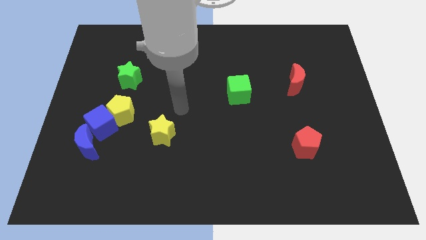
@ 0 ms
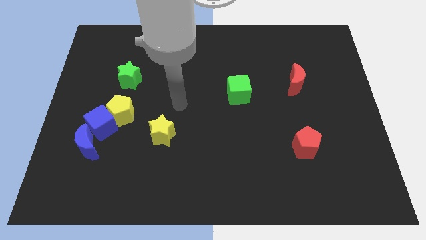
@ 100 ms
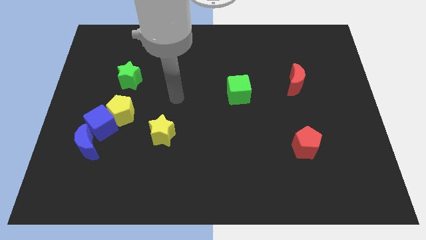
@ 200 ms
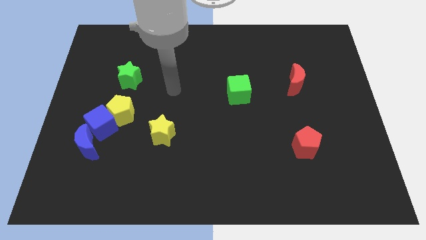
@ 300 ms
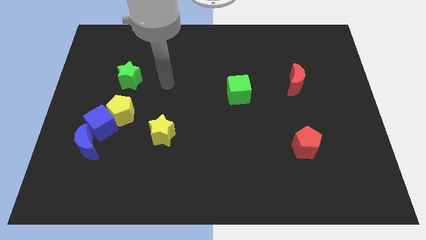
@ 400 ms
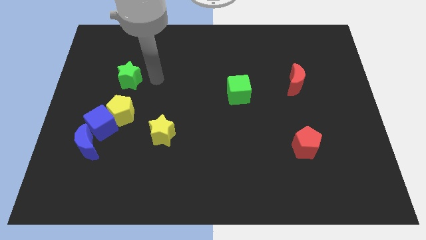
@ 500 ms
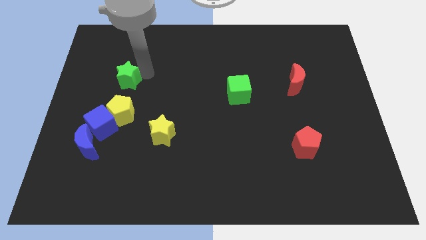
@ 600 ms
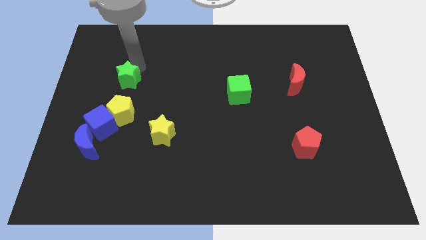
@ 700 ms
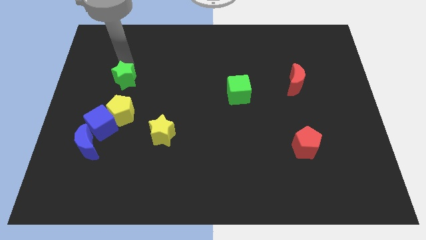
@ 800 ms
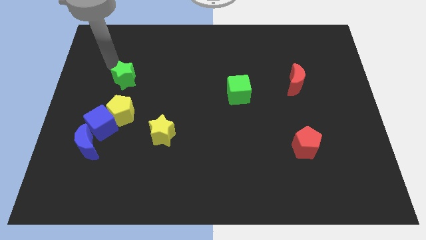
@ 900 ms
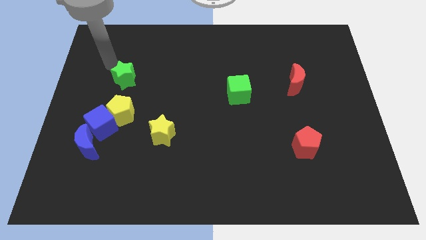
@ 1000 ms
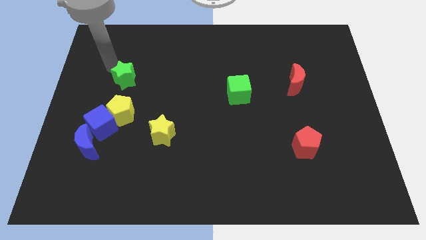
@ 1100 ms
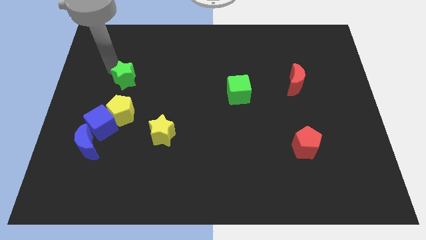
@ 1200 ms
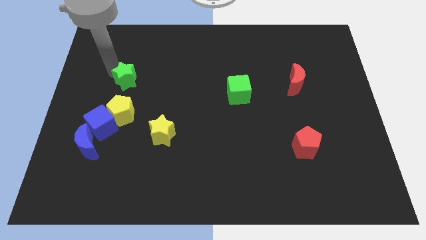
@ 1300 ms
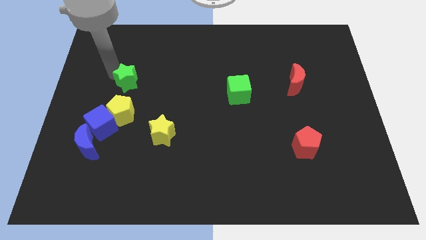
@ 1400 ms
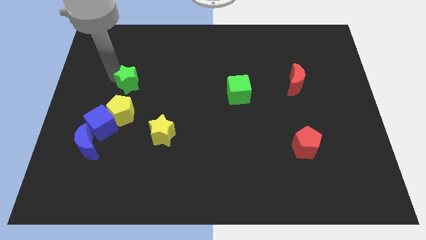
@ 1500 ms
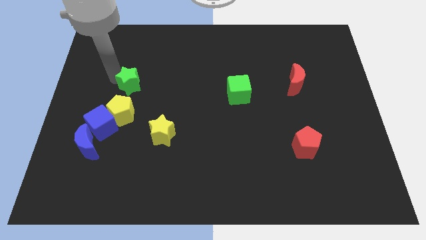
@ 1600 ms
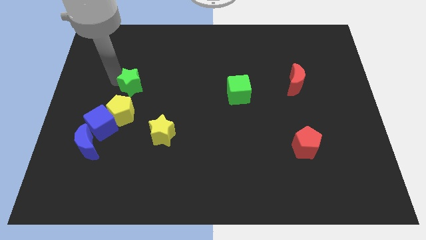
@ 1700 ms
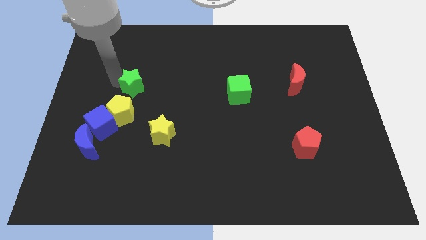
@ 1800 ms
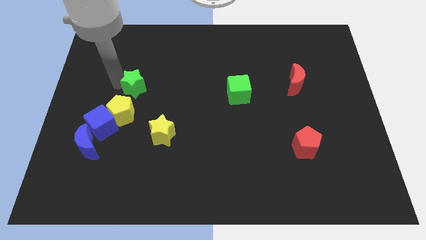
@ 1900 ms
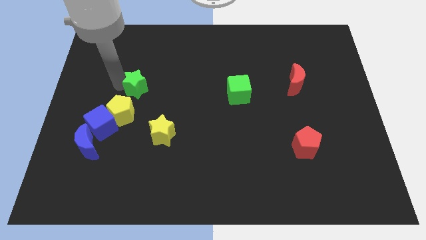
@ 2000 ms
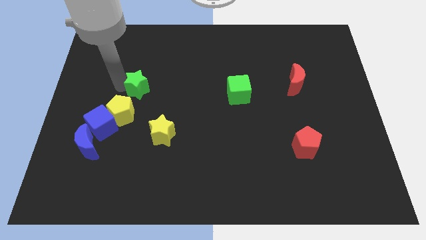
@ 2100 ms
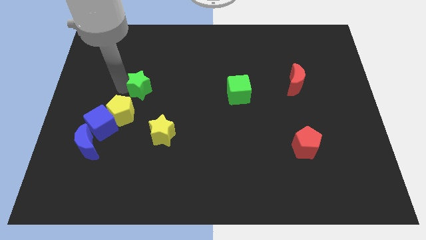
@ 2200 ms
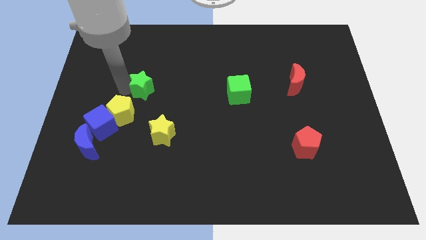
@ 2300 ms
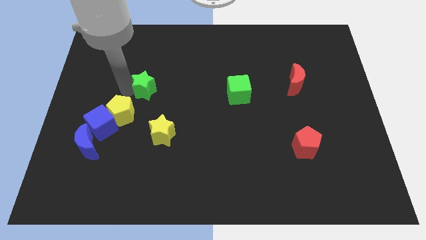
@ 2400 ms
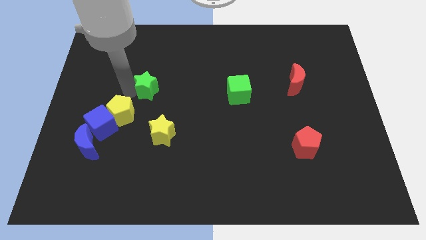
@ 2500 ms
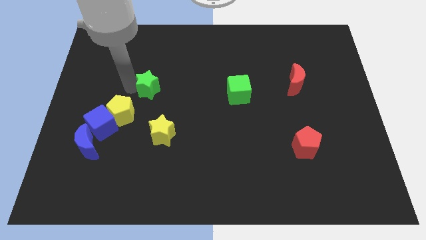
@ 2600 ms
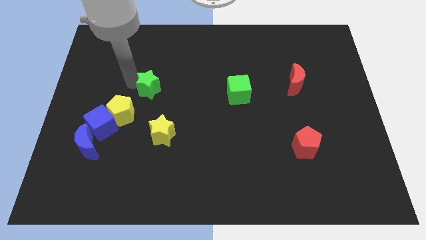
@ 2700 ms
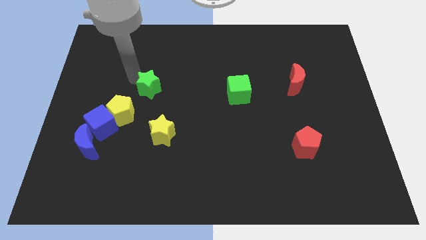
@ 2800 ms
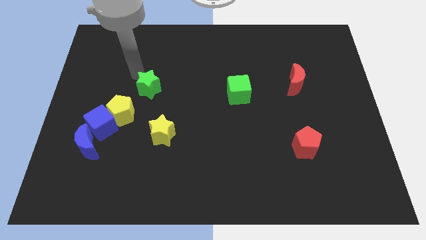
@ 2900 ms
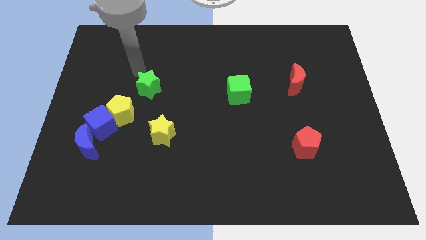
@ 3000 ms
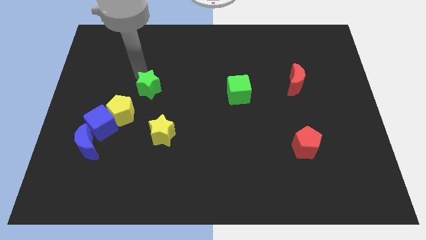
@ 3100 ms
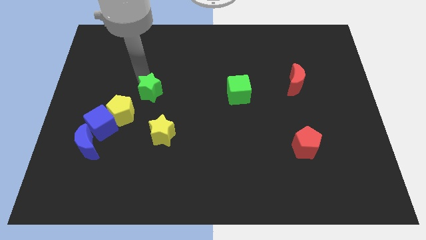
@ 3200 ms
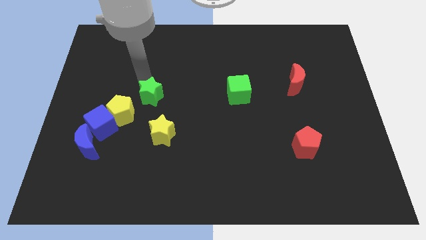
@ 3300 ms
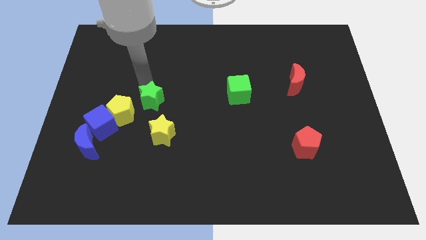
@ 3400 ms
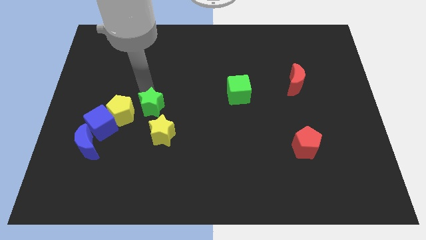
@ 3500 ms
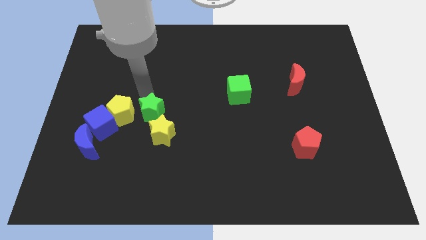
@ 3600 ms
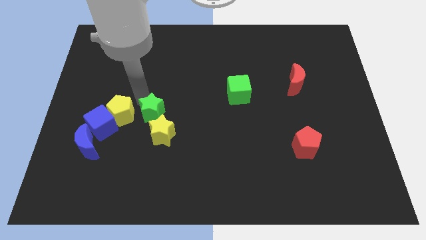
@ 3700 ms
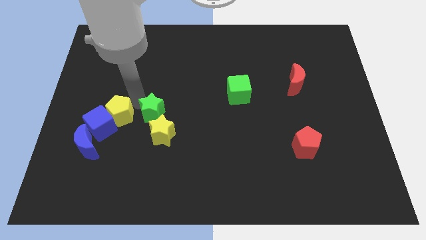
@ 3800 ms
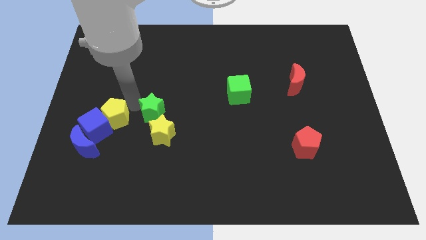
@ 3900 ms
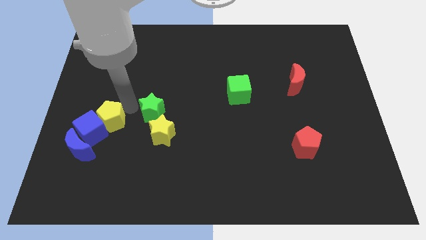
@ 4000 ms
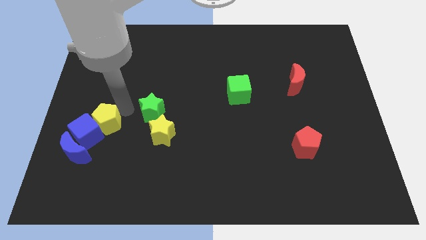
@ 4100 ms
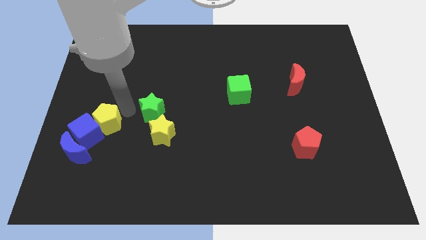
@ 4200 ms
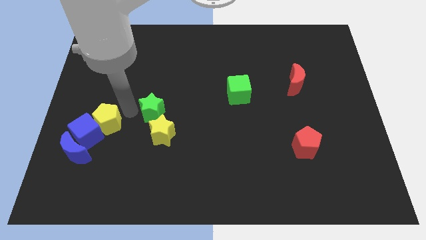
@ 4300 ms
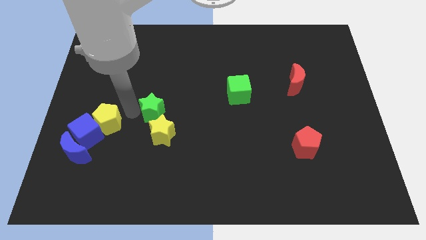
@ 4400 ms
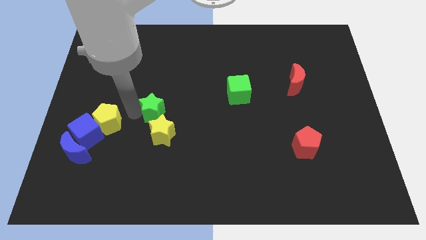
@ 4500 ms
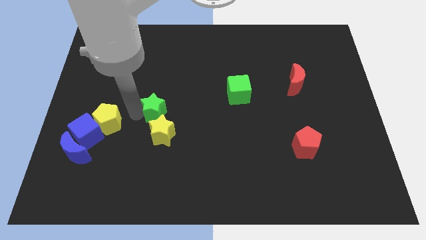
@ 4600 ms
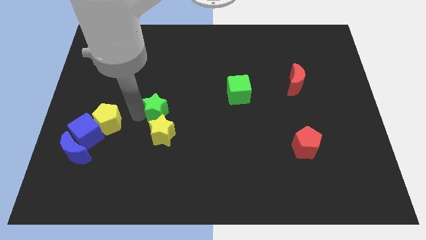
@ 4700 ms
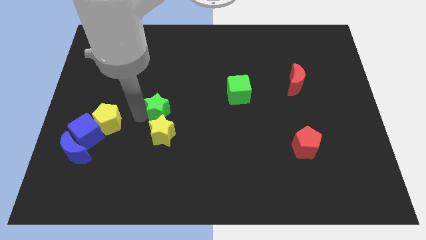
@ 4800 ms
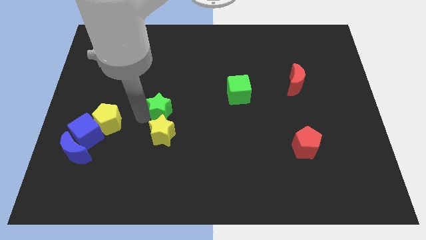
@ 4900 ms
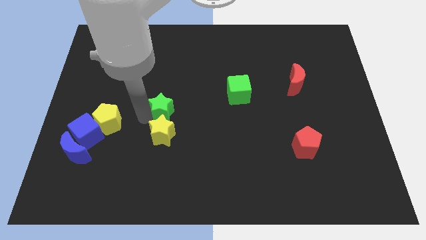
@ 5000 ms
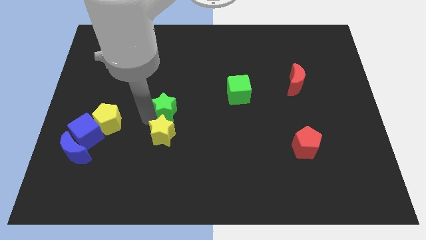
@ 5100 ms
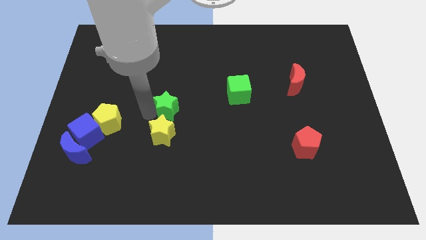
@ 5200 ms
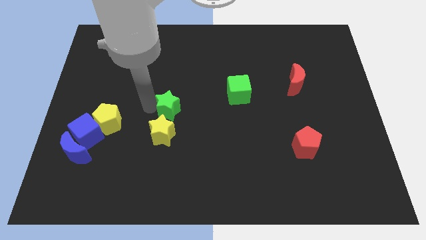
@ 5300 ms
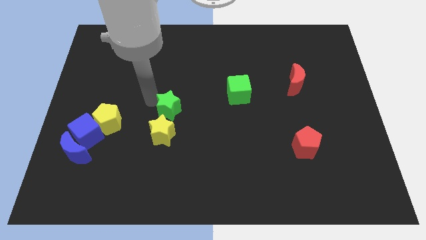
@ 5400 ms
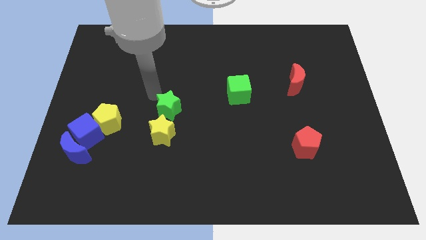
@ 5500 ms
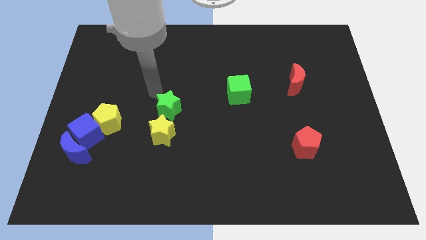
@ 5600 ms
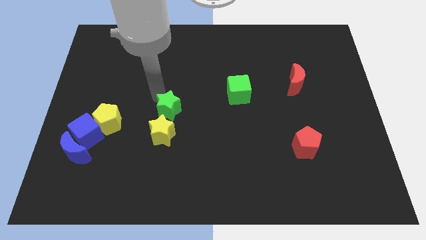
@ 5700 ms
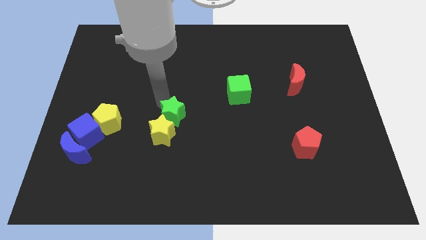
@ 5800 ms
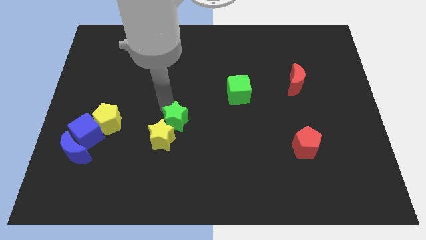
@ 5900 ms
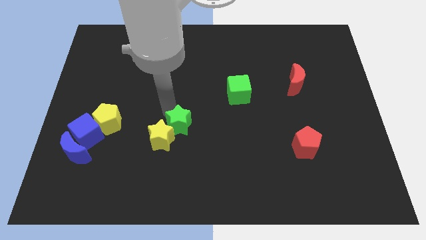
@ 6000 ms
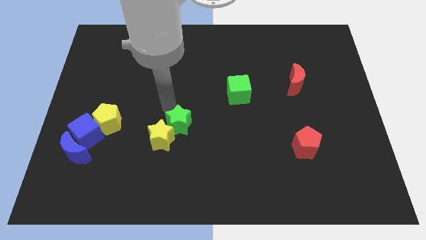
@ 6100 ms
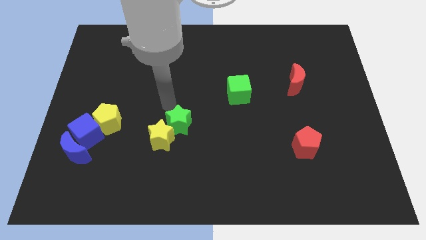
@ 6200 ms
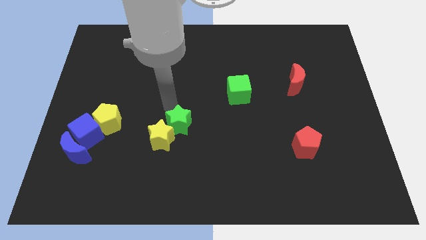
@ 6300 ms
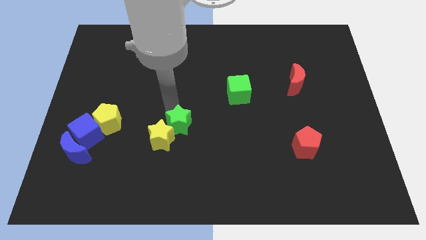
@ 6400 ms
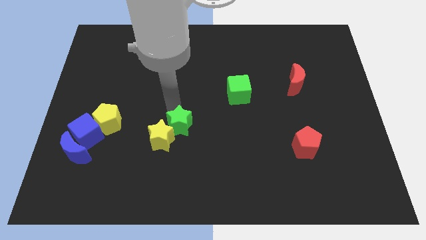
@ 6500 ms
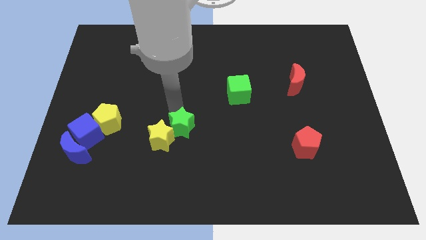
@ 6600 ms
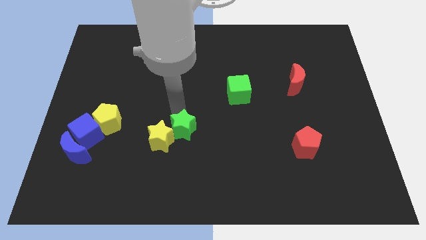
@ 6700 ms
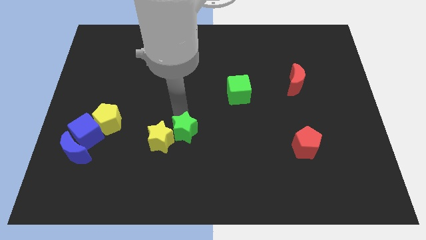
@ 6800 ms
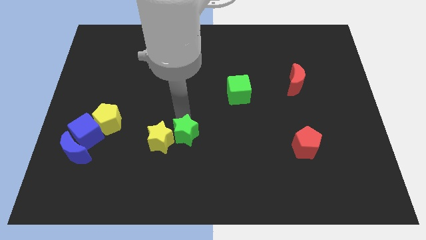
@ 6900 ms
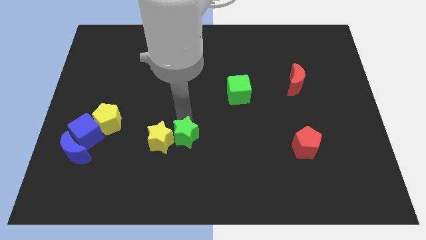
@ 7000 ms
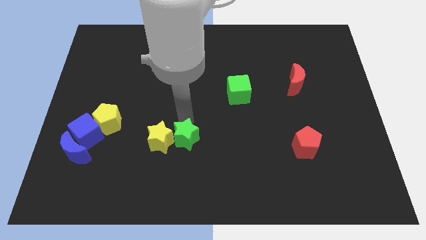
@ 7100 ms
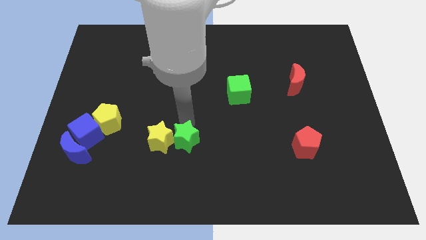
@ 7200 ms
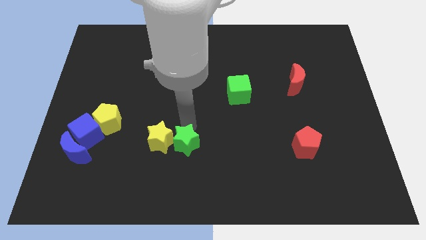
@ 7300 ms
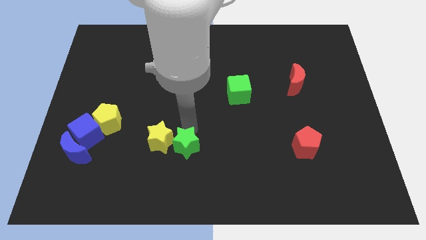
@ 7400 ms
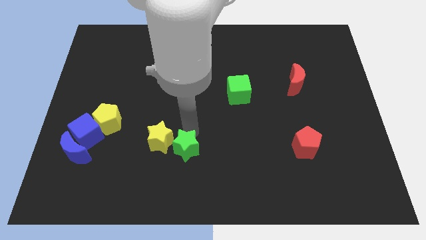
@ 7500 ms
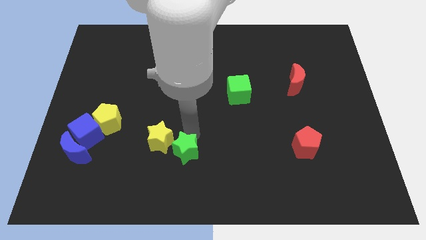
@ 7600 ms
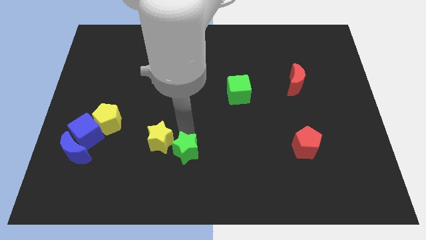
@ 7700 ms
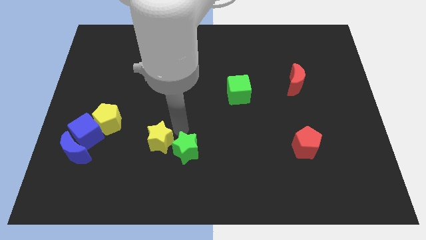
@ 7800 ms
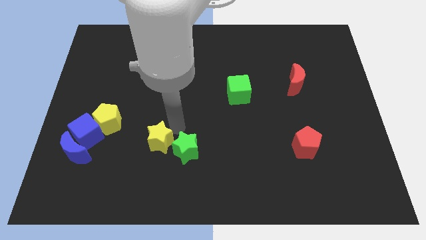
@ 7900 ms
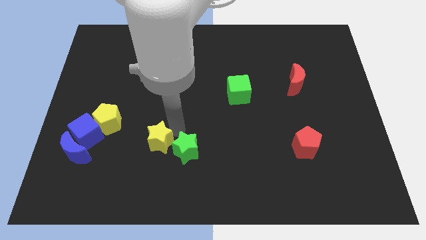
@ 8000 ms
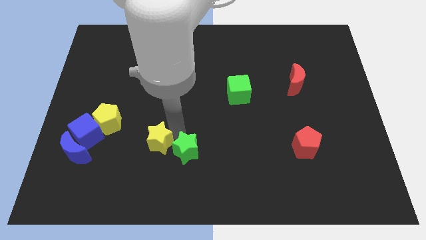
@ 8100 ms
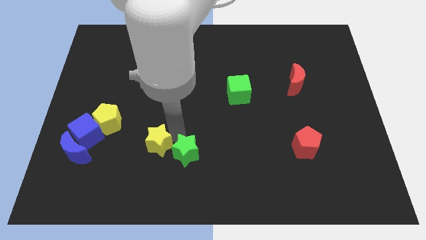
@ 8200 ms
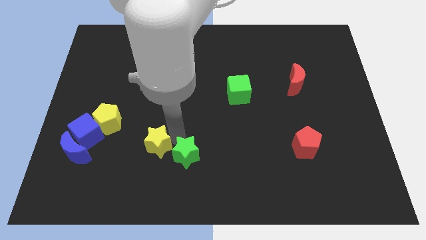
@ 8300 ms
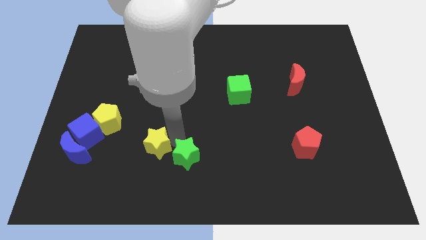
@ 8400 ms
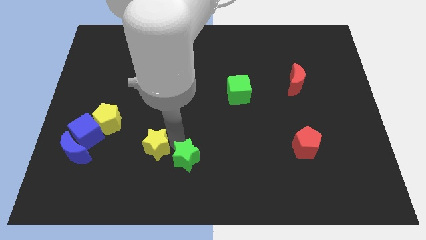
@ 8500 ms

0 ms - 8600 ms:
put the green star to the bottom
